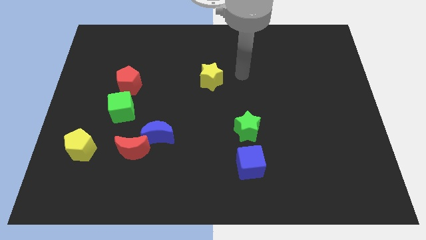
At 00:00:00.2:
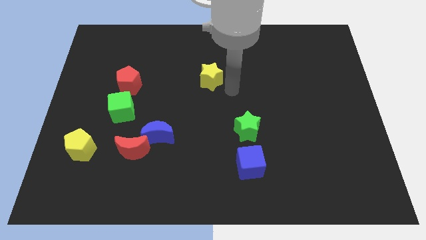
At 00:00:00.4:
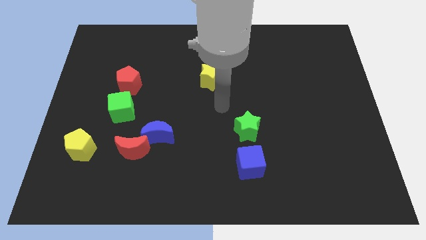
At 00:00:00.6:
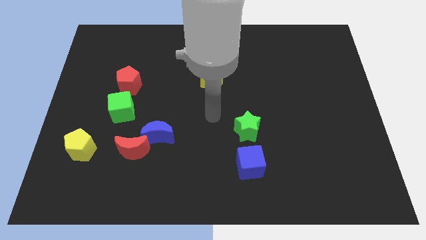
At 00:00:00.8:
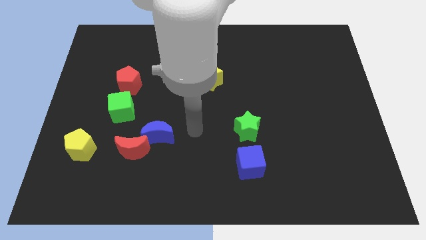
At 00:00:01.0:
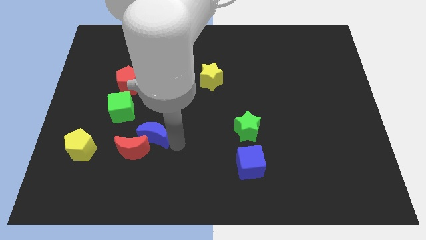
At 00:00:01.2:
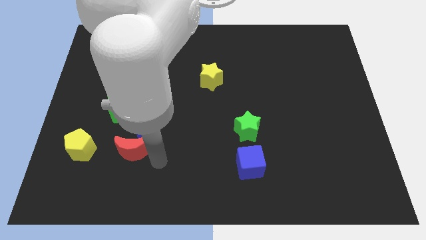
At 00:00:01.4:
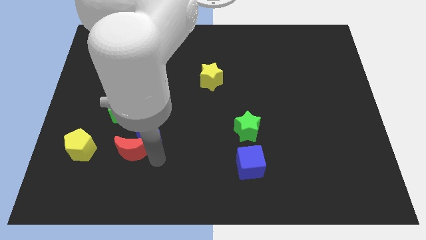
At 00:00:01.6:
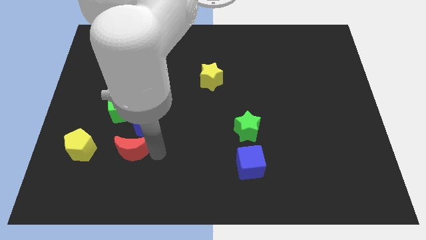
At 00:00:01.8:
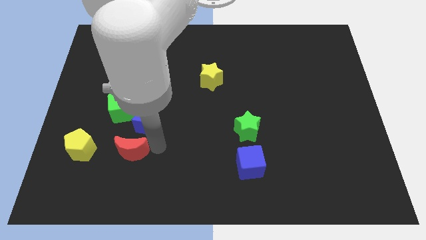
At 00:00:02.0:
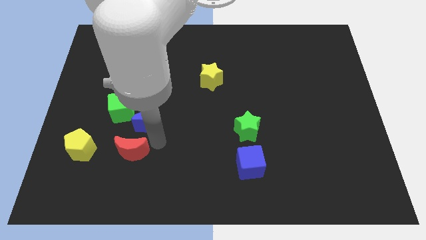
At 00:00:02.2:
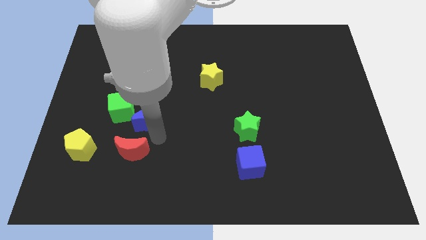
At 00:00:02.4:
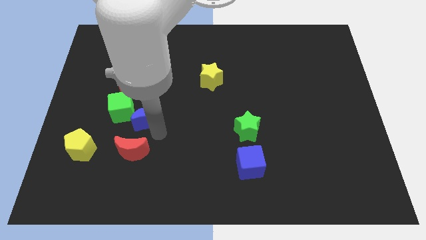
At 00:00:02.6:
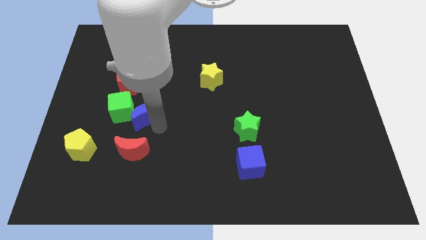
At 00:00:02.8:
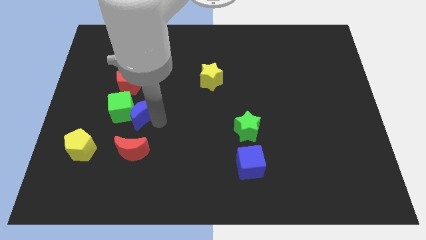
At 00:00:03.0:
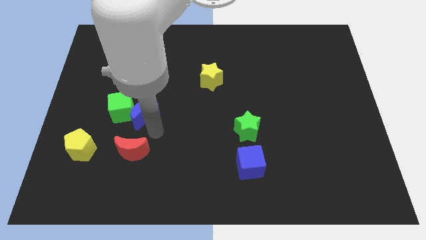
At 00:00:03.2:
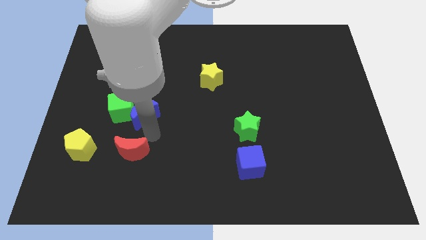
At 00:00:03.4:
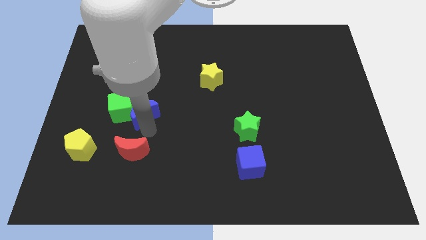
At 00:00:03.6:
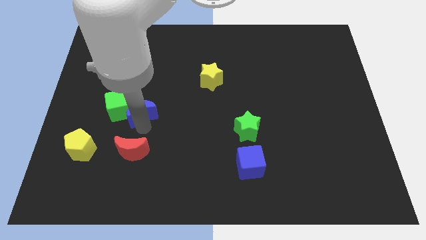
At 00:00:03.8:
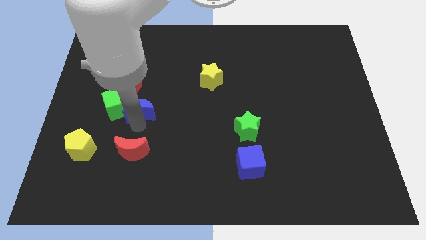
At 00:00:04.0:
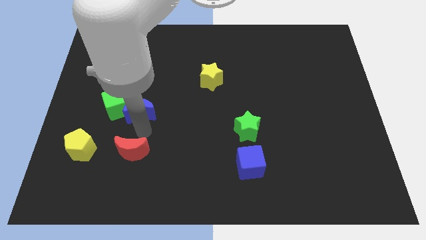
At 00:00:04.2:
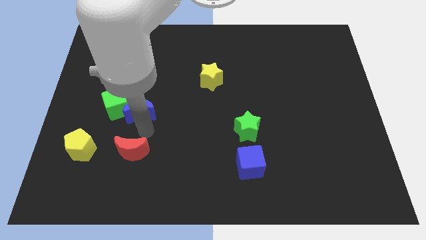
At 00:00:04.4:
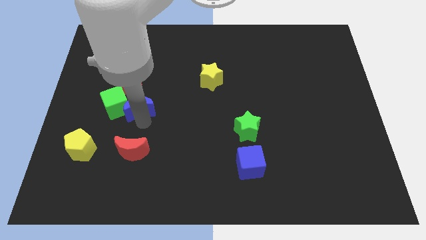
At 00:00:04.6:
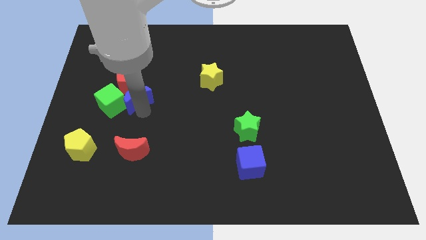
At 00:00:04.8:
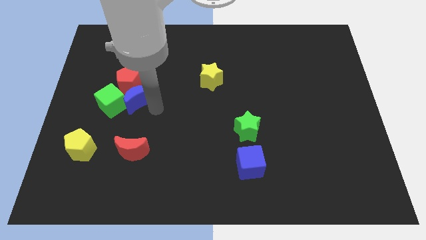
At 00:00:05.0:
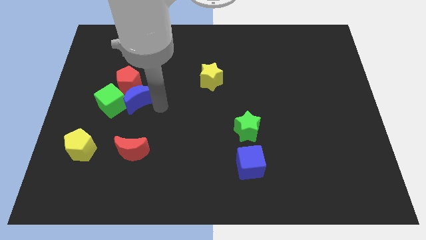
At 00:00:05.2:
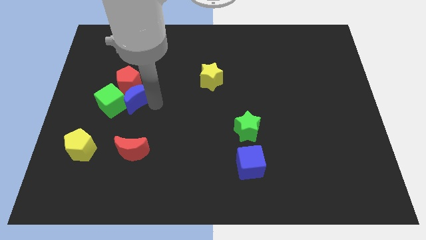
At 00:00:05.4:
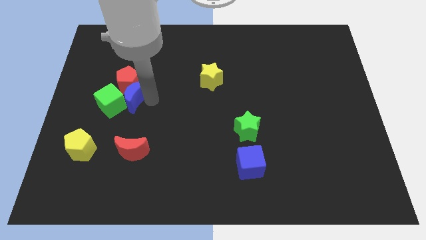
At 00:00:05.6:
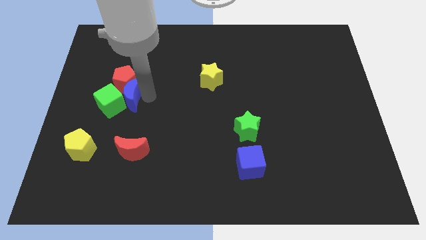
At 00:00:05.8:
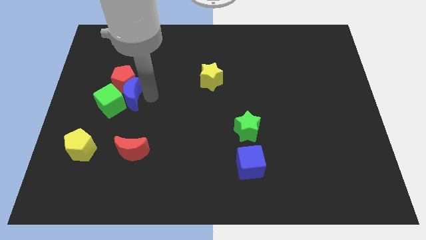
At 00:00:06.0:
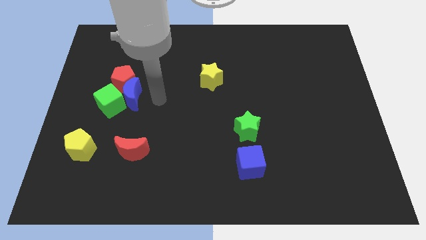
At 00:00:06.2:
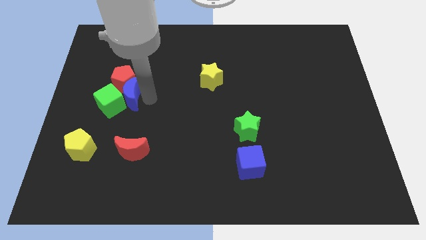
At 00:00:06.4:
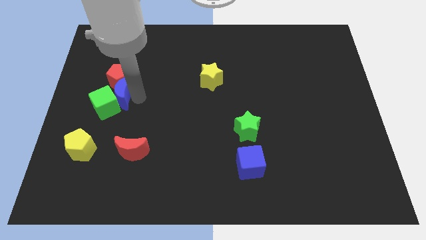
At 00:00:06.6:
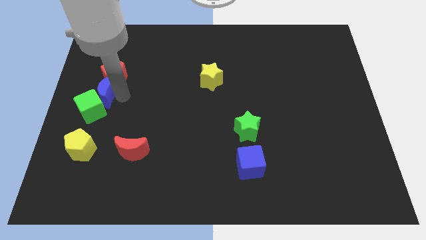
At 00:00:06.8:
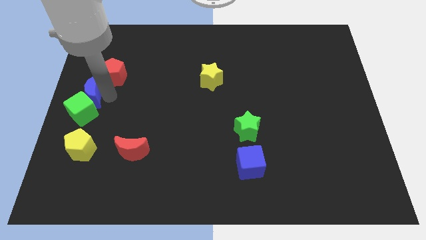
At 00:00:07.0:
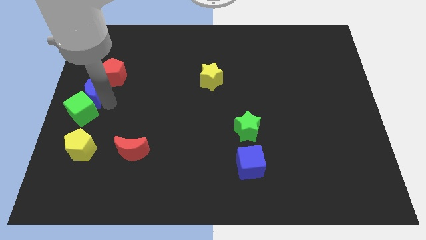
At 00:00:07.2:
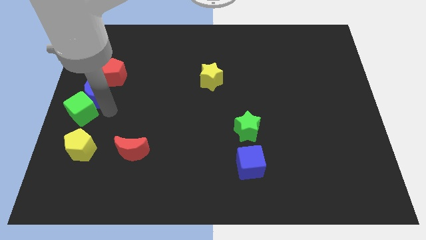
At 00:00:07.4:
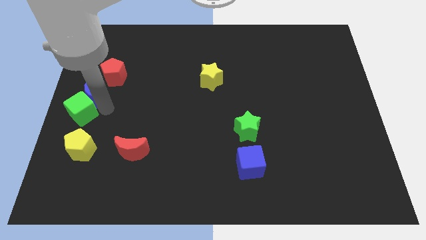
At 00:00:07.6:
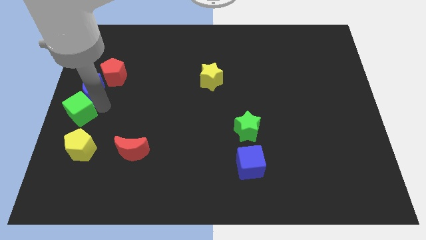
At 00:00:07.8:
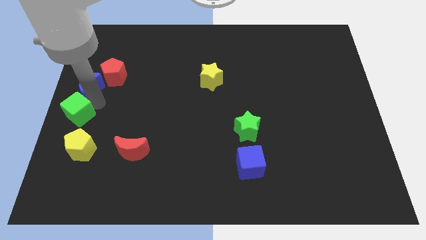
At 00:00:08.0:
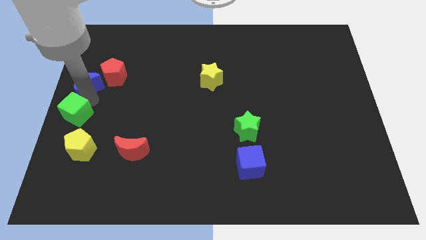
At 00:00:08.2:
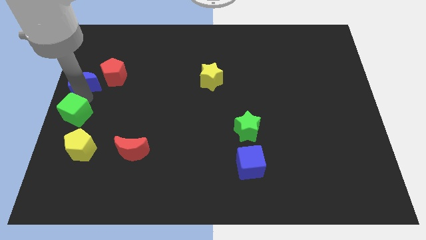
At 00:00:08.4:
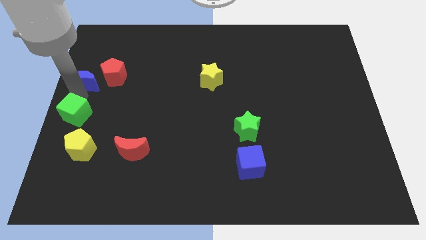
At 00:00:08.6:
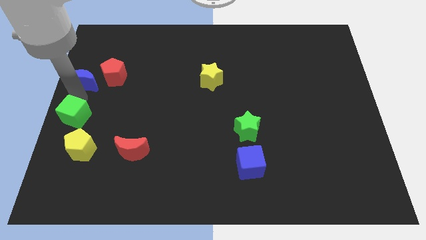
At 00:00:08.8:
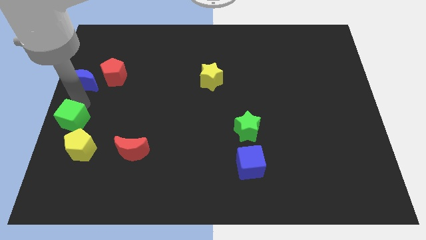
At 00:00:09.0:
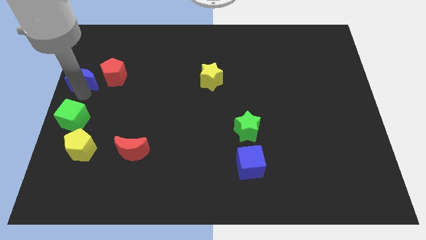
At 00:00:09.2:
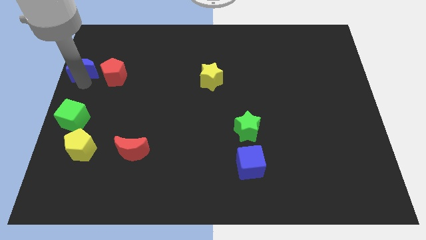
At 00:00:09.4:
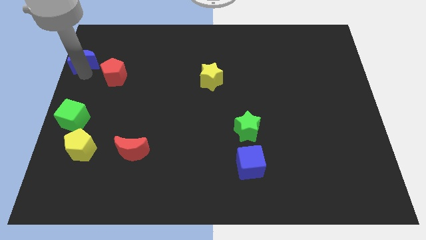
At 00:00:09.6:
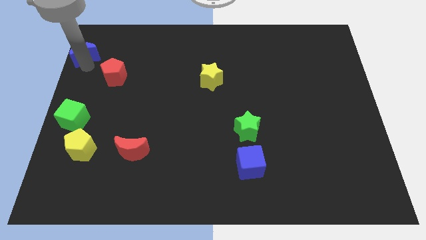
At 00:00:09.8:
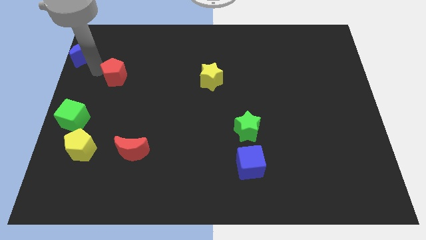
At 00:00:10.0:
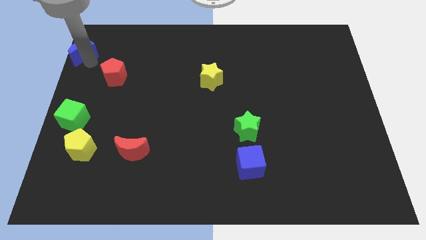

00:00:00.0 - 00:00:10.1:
move the blue moon to the top left

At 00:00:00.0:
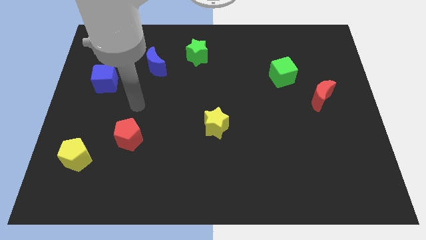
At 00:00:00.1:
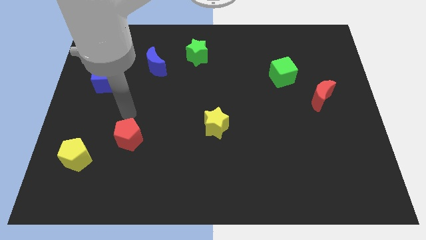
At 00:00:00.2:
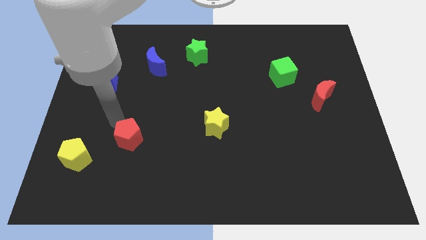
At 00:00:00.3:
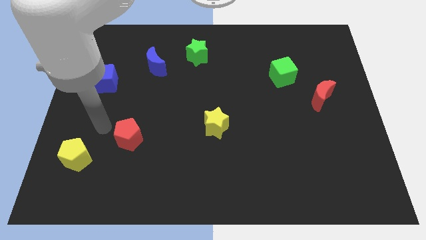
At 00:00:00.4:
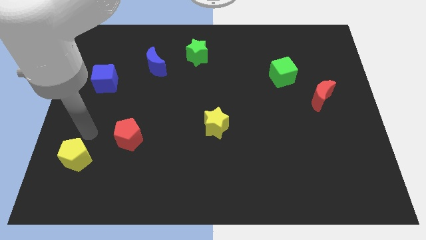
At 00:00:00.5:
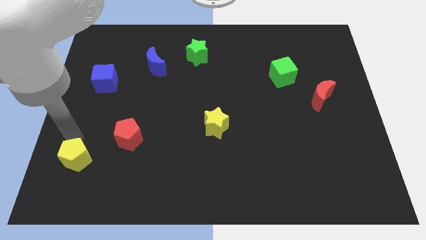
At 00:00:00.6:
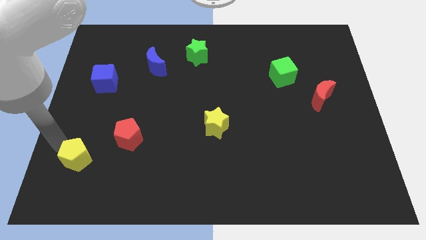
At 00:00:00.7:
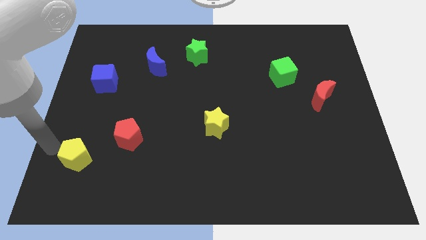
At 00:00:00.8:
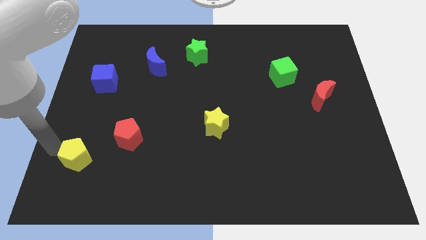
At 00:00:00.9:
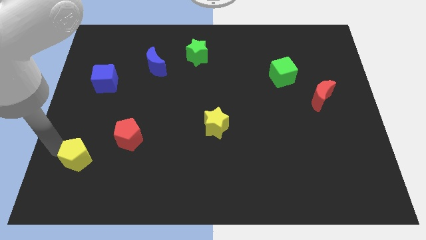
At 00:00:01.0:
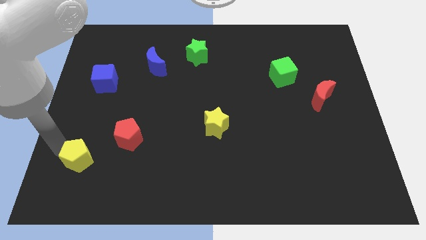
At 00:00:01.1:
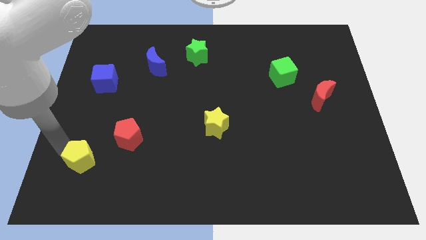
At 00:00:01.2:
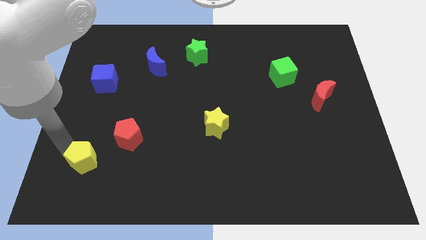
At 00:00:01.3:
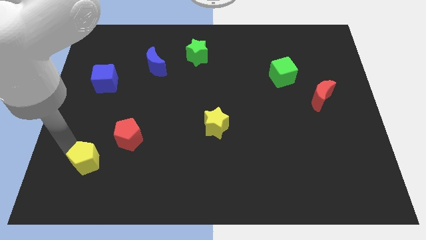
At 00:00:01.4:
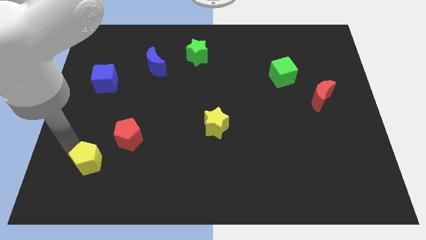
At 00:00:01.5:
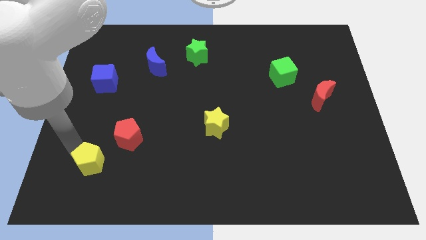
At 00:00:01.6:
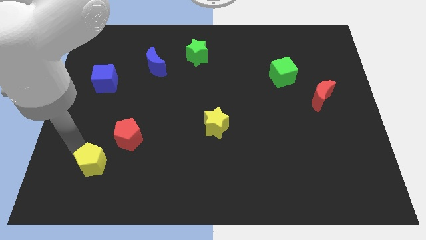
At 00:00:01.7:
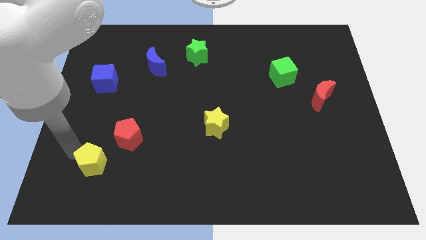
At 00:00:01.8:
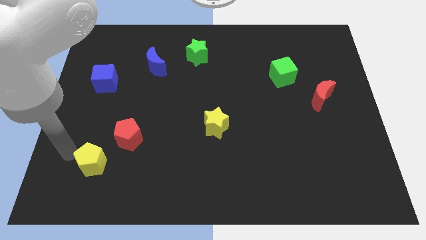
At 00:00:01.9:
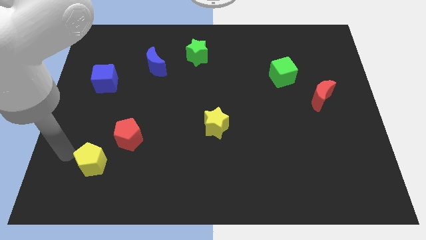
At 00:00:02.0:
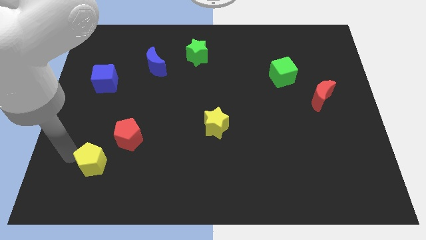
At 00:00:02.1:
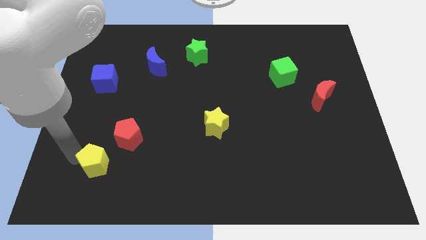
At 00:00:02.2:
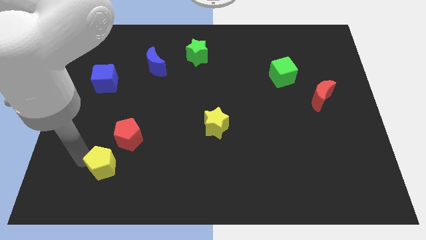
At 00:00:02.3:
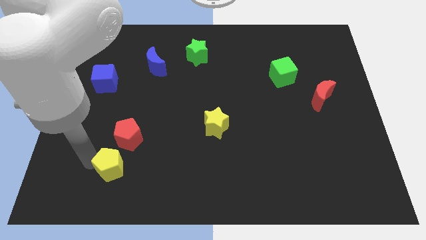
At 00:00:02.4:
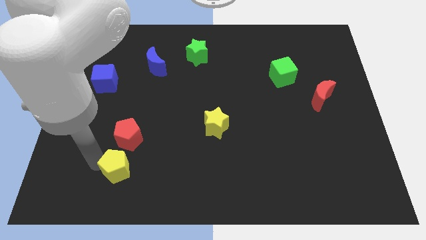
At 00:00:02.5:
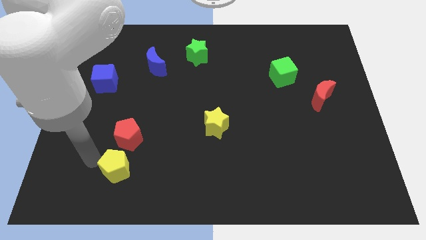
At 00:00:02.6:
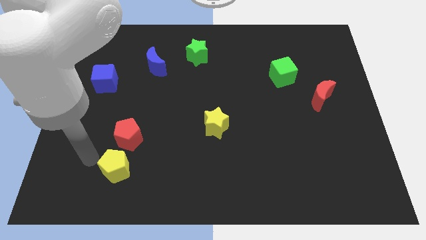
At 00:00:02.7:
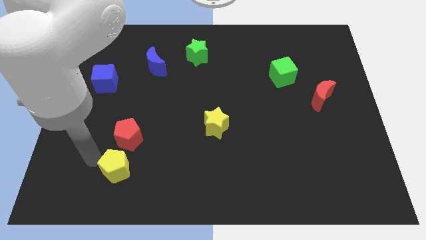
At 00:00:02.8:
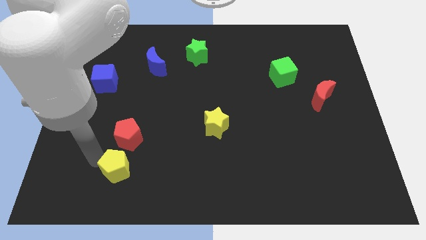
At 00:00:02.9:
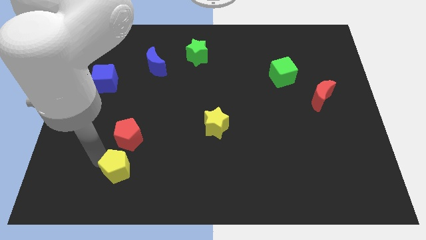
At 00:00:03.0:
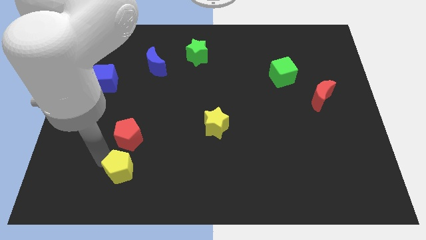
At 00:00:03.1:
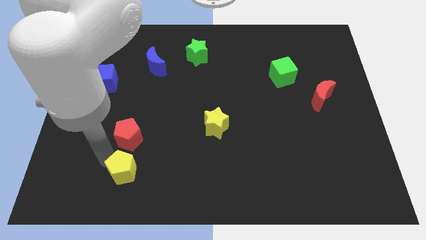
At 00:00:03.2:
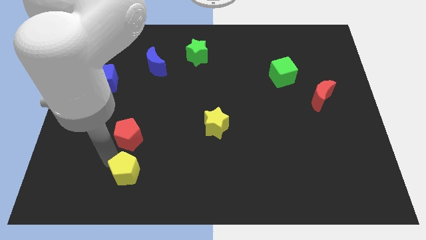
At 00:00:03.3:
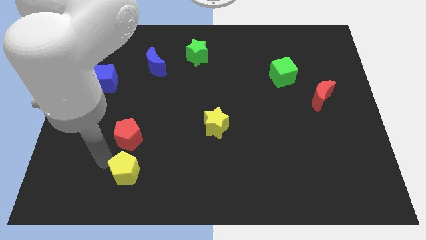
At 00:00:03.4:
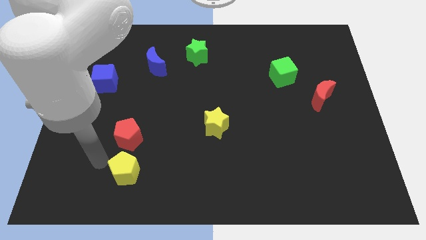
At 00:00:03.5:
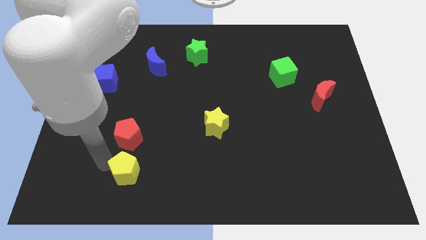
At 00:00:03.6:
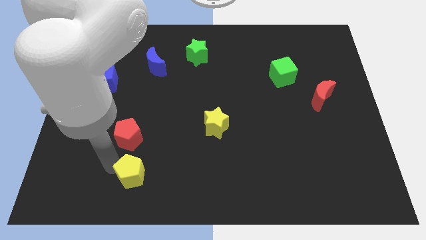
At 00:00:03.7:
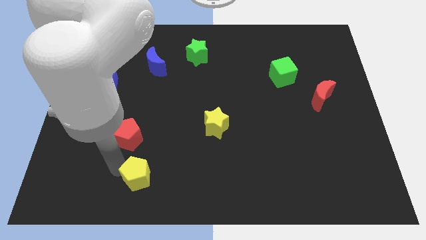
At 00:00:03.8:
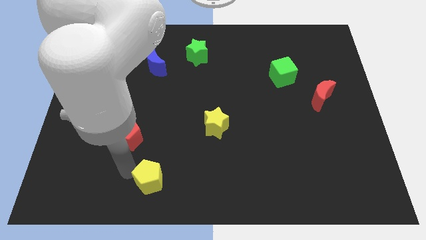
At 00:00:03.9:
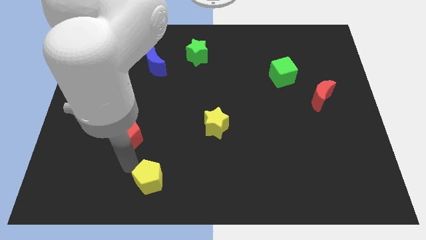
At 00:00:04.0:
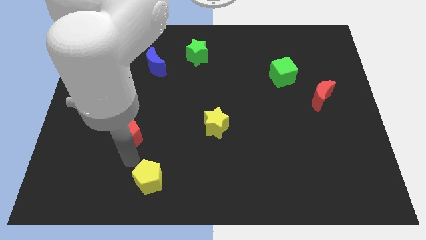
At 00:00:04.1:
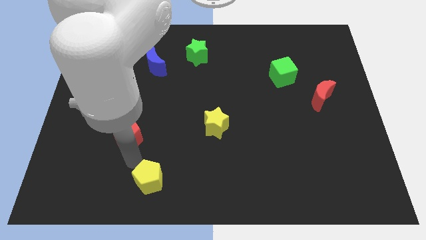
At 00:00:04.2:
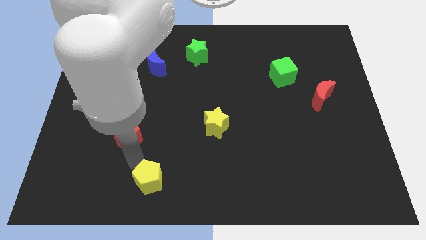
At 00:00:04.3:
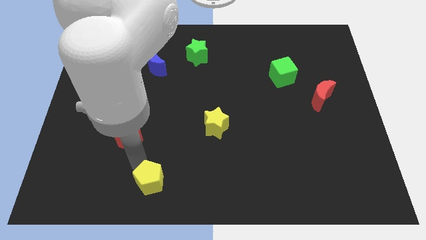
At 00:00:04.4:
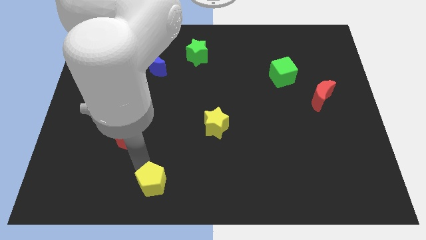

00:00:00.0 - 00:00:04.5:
slide the yellow pentagon to the bottom side
